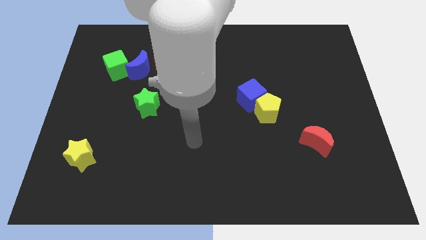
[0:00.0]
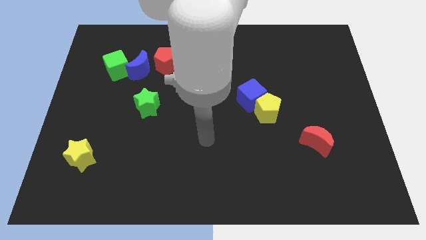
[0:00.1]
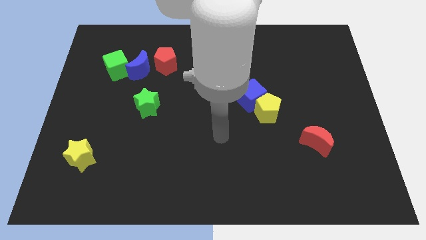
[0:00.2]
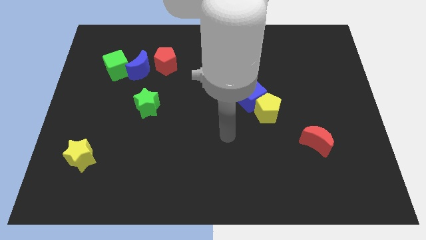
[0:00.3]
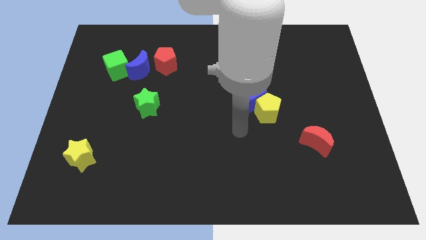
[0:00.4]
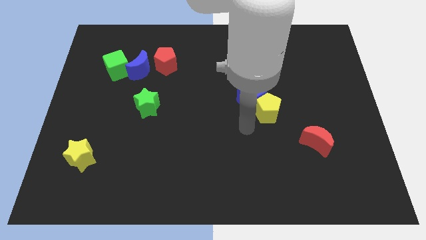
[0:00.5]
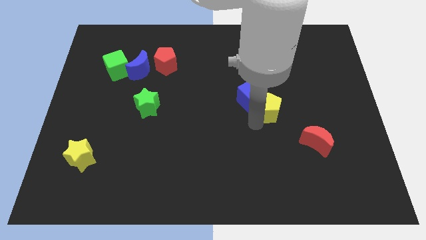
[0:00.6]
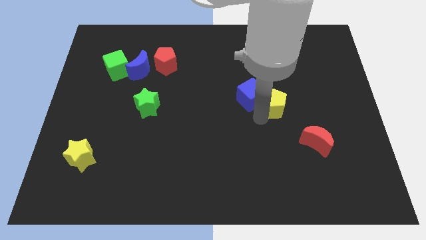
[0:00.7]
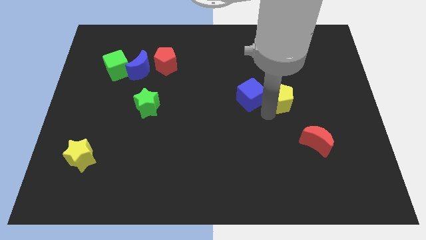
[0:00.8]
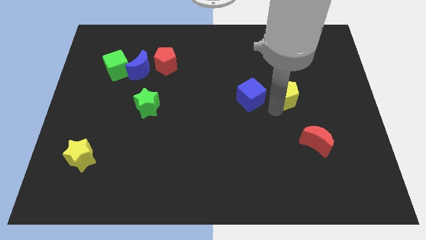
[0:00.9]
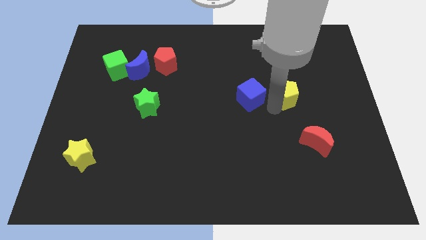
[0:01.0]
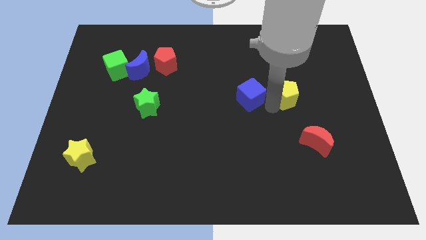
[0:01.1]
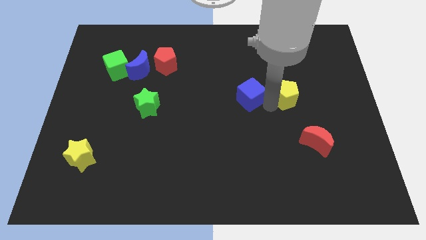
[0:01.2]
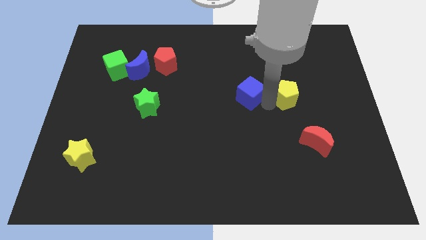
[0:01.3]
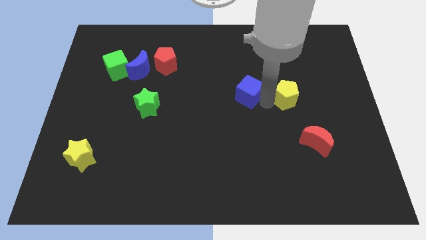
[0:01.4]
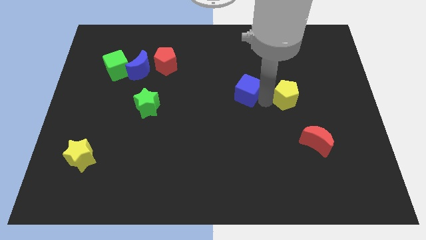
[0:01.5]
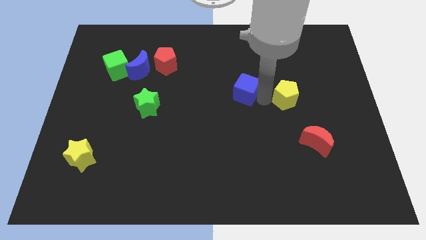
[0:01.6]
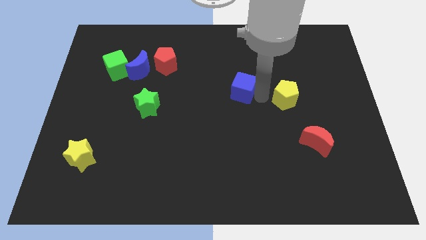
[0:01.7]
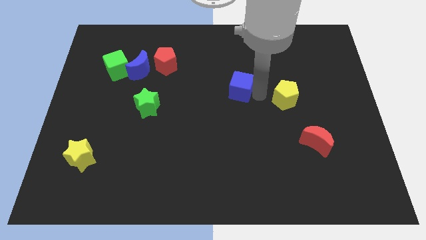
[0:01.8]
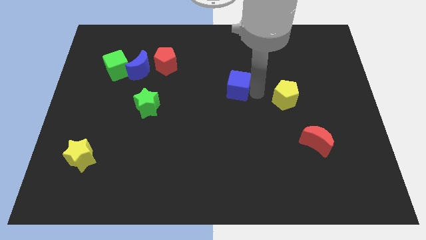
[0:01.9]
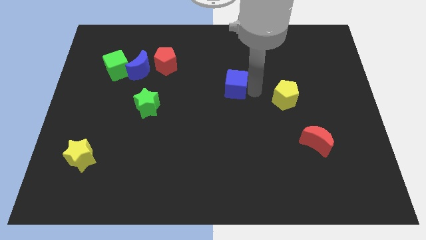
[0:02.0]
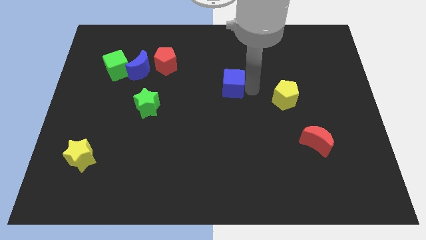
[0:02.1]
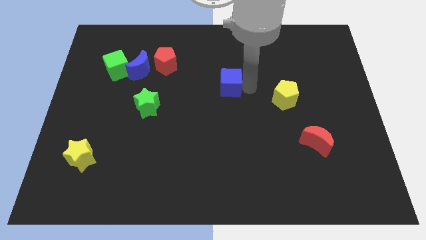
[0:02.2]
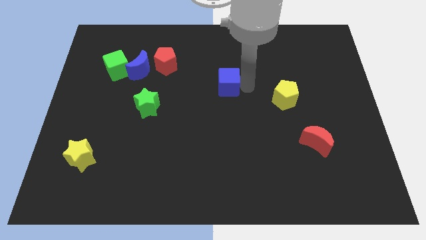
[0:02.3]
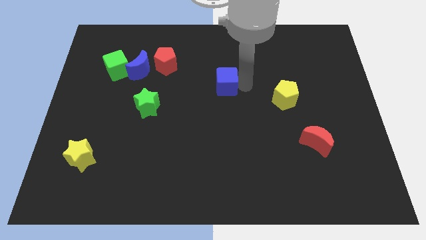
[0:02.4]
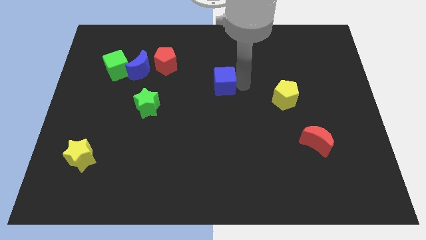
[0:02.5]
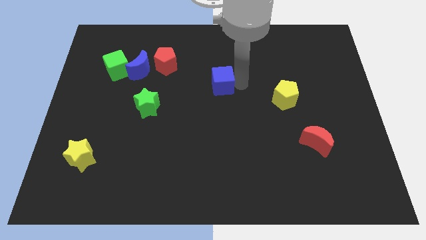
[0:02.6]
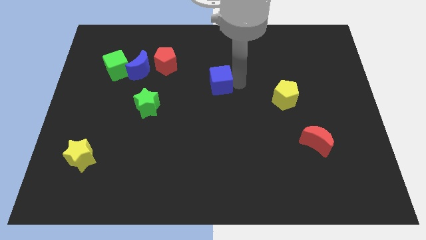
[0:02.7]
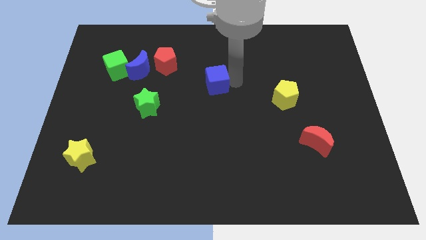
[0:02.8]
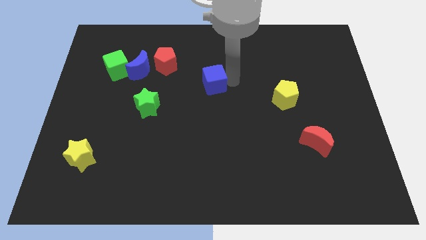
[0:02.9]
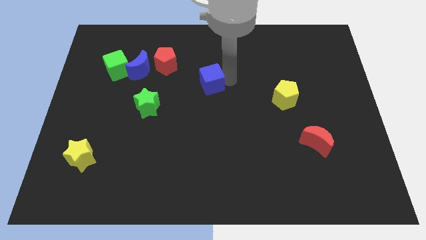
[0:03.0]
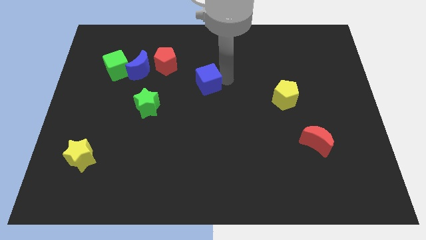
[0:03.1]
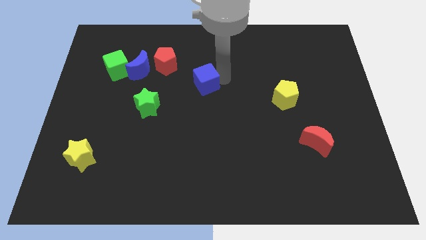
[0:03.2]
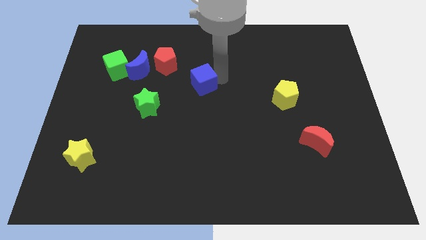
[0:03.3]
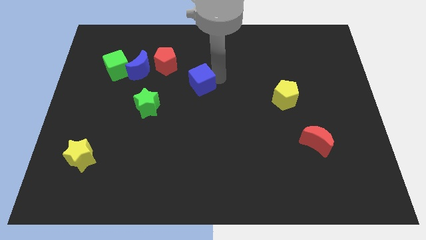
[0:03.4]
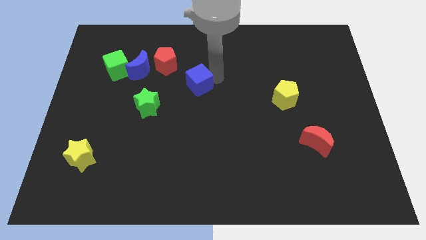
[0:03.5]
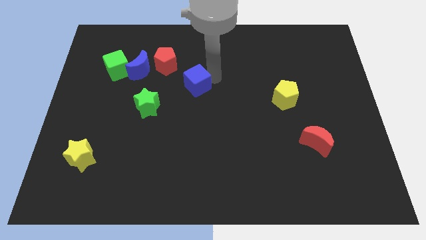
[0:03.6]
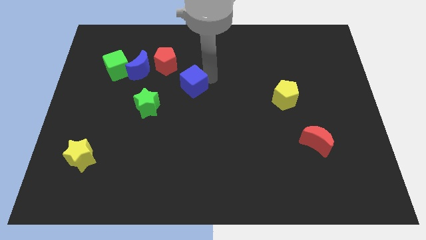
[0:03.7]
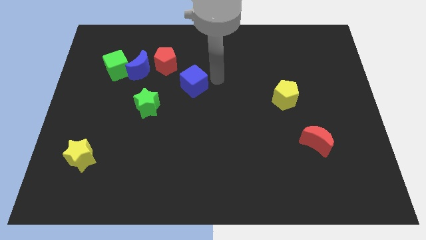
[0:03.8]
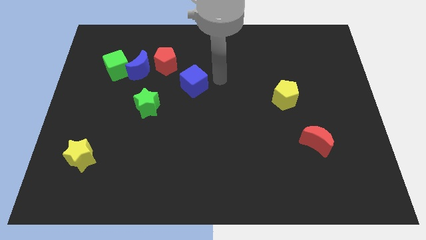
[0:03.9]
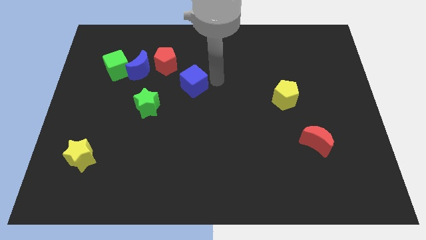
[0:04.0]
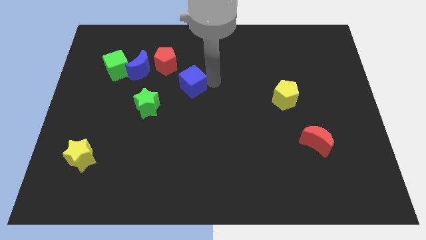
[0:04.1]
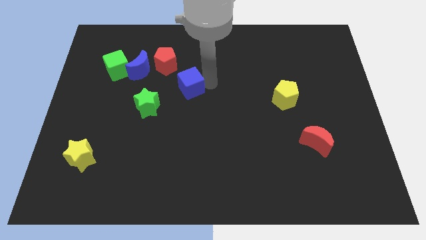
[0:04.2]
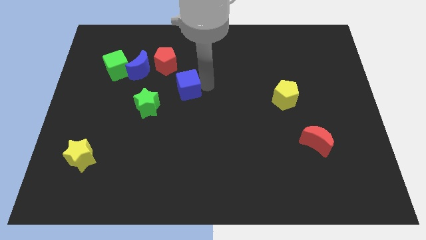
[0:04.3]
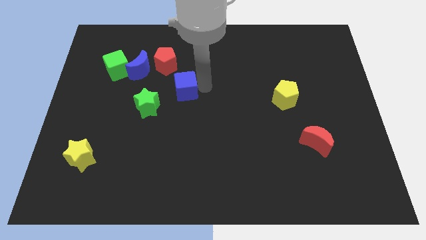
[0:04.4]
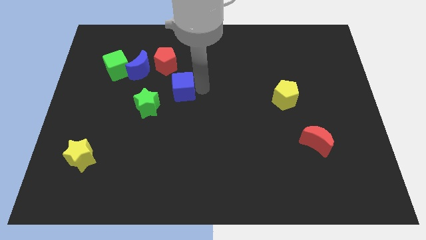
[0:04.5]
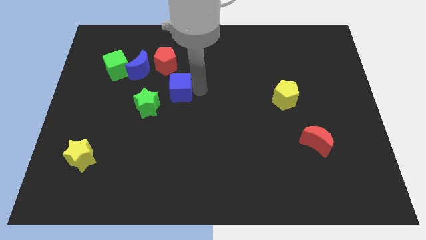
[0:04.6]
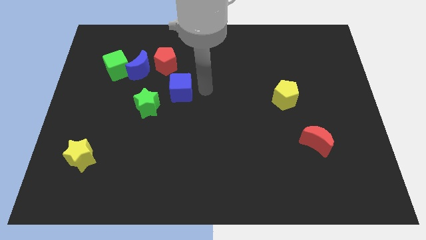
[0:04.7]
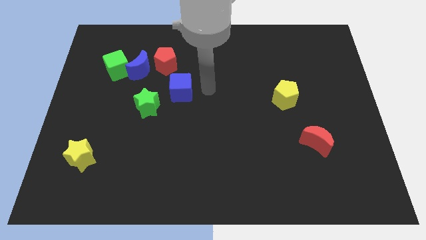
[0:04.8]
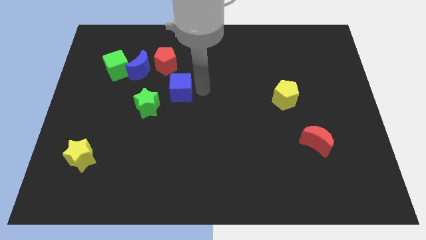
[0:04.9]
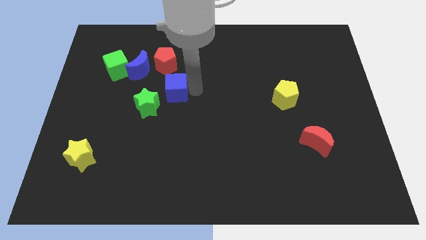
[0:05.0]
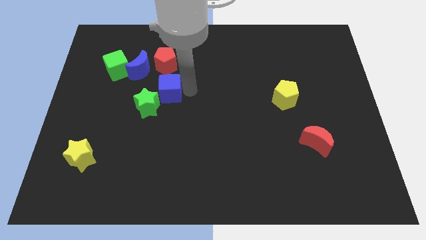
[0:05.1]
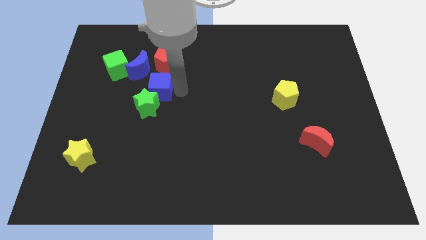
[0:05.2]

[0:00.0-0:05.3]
push the blue cube left

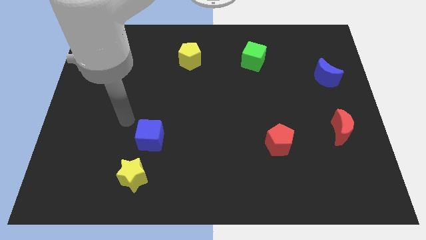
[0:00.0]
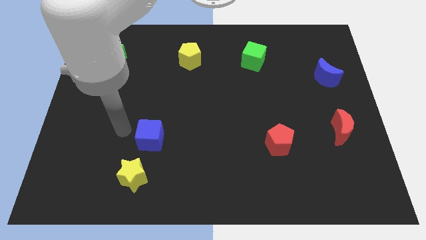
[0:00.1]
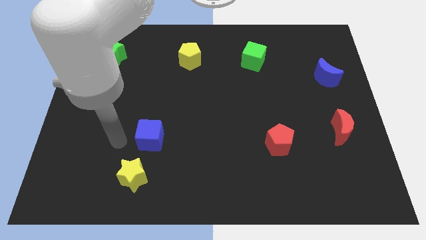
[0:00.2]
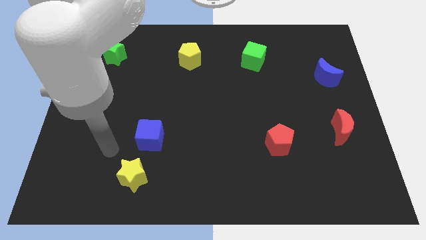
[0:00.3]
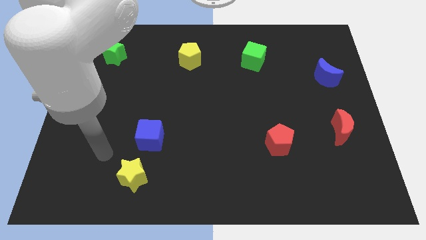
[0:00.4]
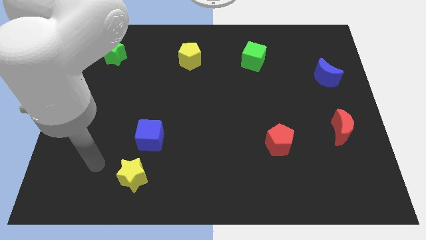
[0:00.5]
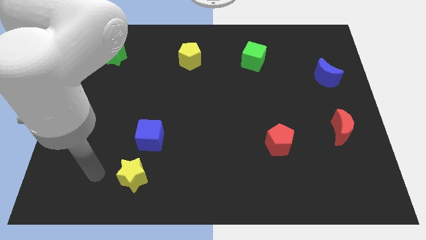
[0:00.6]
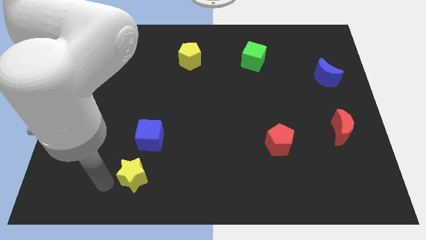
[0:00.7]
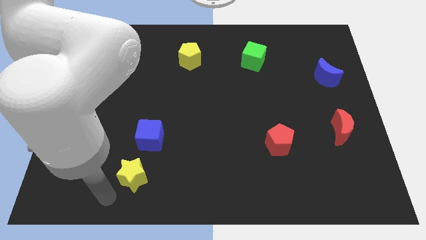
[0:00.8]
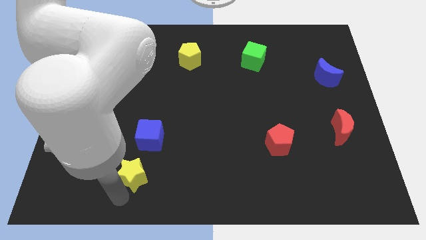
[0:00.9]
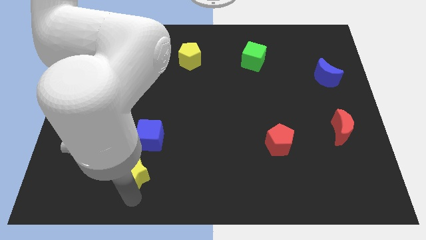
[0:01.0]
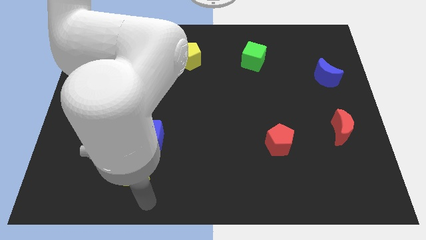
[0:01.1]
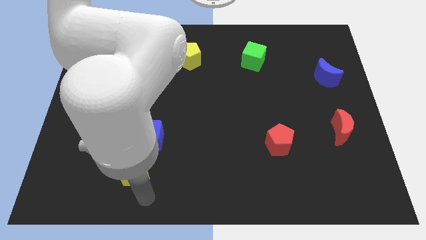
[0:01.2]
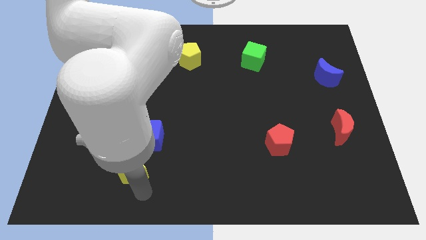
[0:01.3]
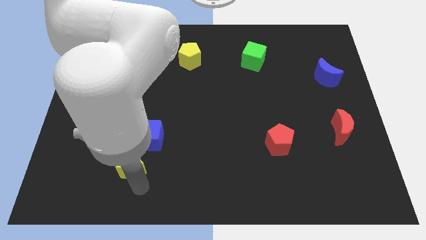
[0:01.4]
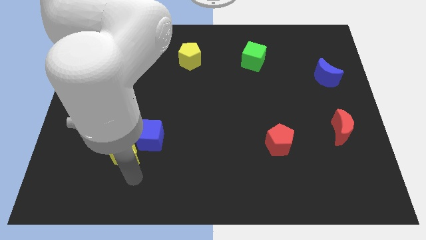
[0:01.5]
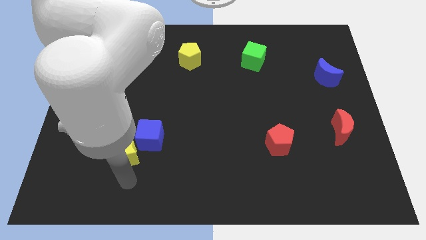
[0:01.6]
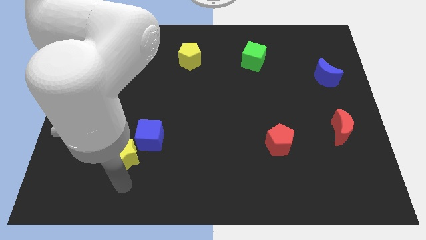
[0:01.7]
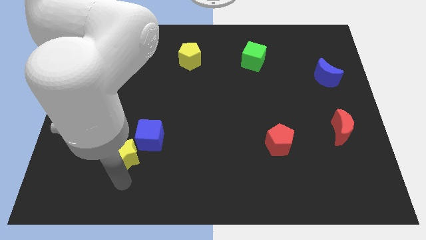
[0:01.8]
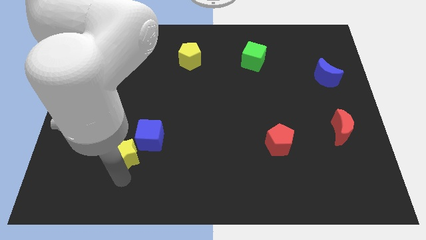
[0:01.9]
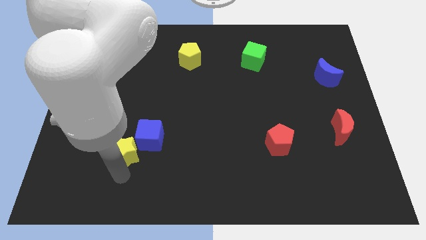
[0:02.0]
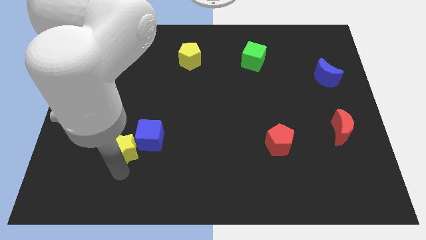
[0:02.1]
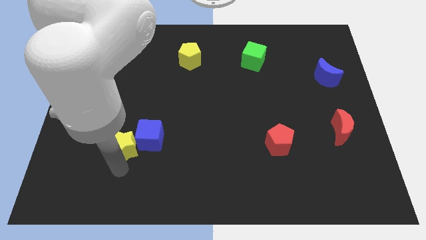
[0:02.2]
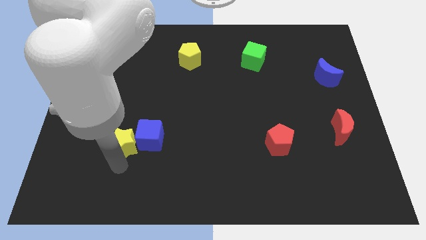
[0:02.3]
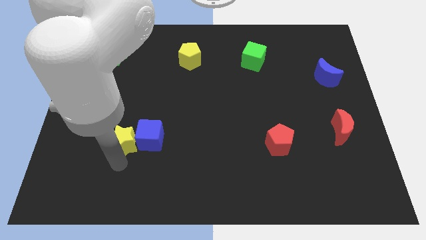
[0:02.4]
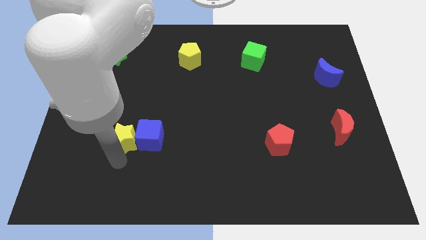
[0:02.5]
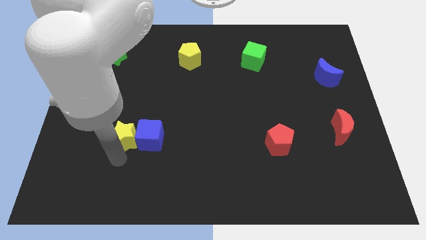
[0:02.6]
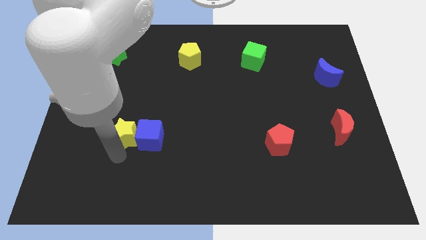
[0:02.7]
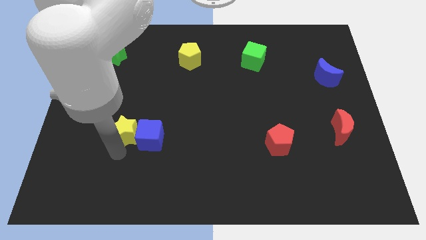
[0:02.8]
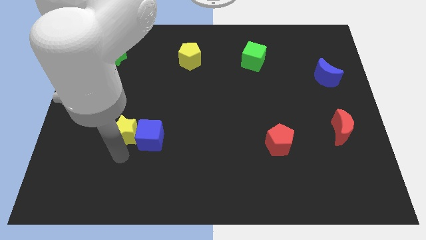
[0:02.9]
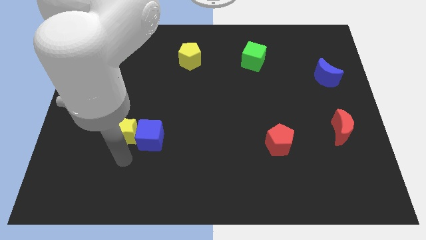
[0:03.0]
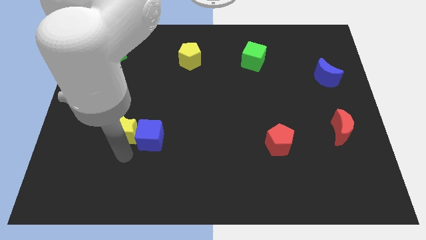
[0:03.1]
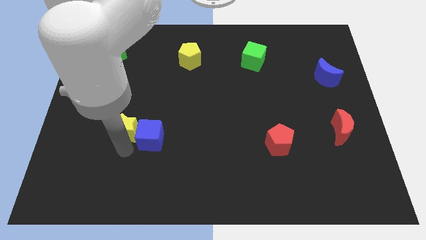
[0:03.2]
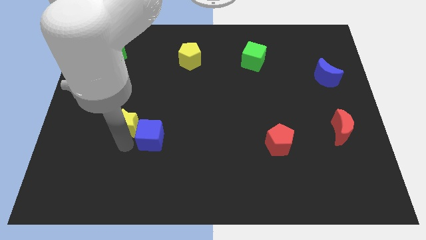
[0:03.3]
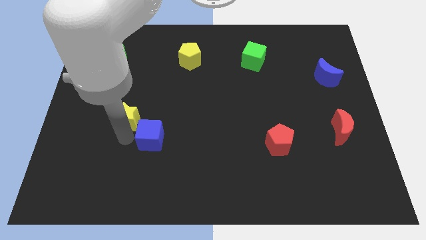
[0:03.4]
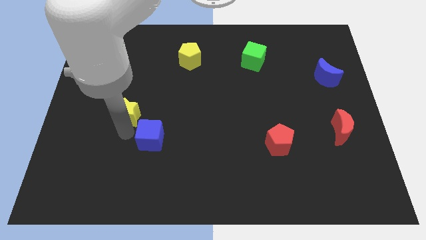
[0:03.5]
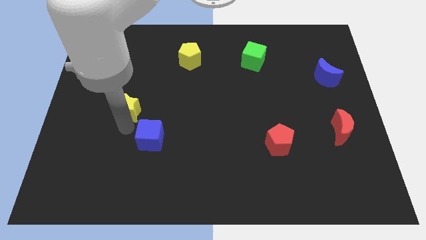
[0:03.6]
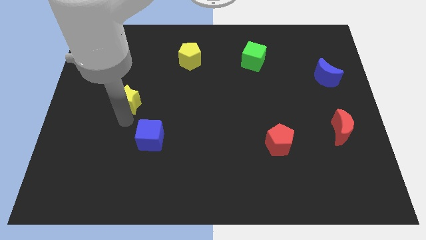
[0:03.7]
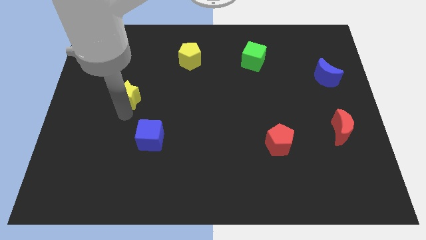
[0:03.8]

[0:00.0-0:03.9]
slide the yellow star upwards
